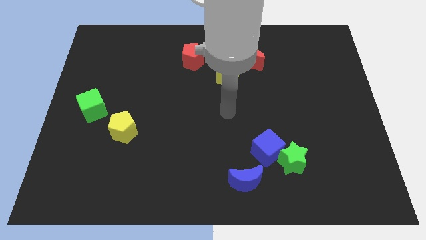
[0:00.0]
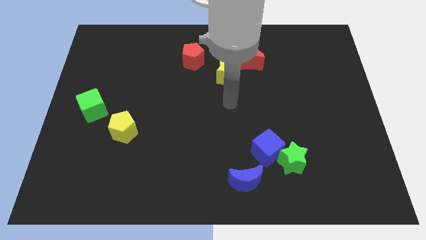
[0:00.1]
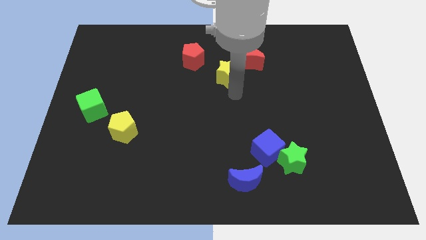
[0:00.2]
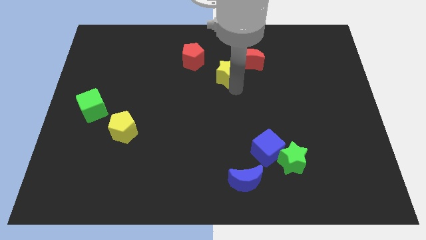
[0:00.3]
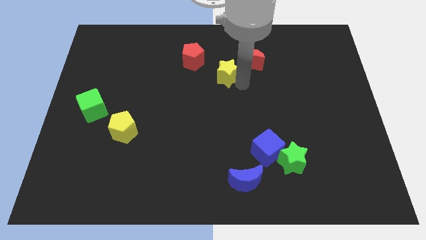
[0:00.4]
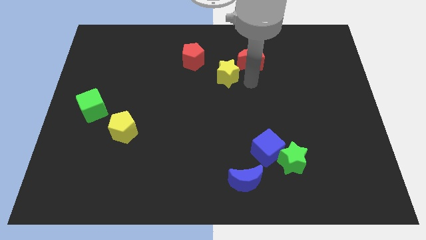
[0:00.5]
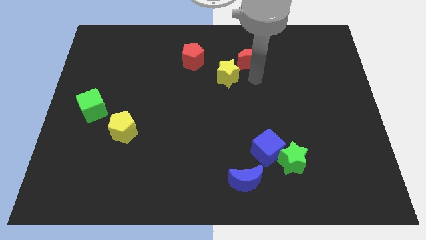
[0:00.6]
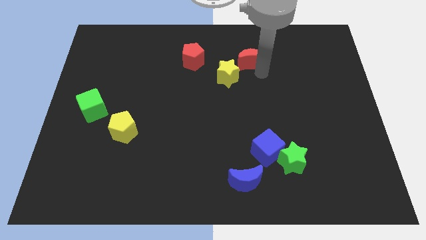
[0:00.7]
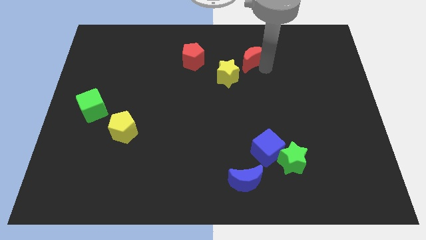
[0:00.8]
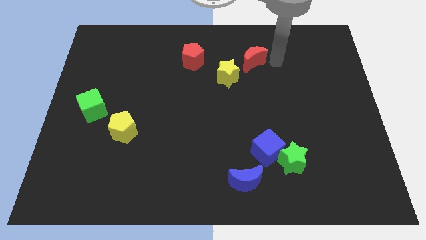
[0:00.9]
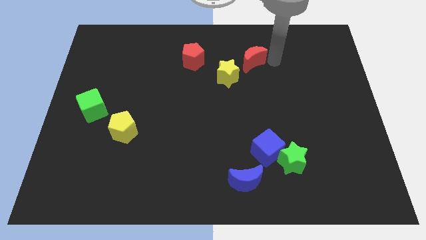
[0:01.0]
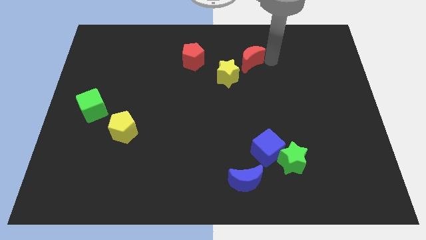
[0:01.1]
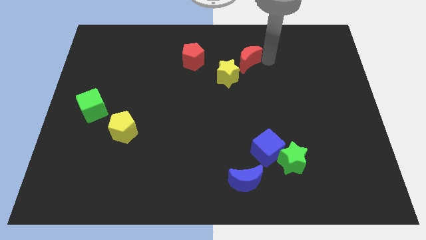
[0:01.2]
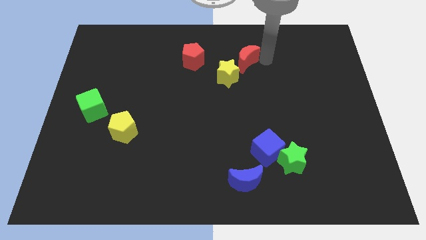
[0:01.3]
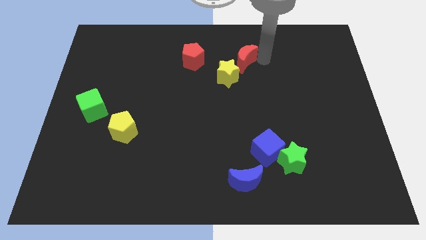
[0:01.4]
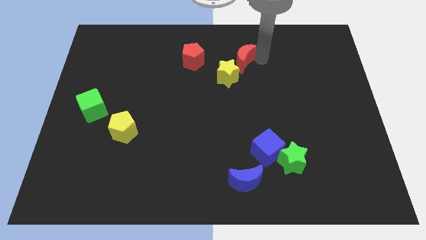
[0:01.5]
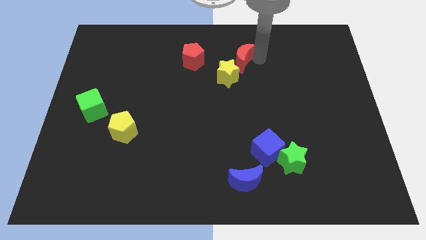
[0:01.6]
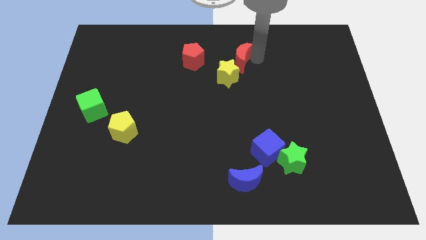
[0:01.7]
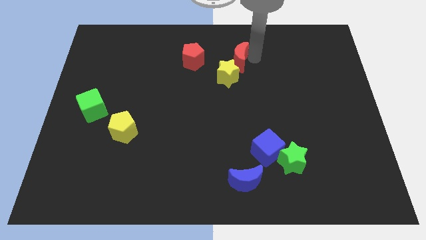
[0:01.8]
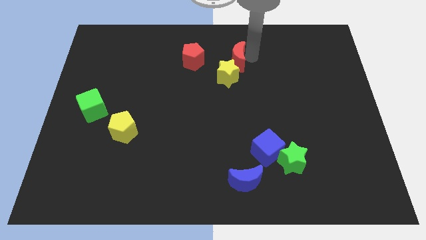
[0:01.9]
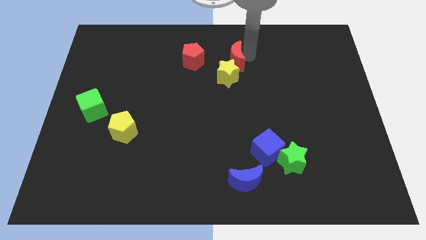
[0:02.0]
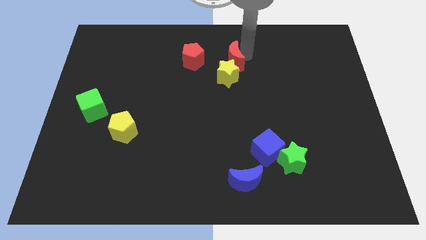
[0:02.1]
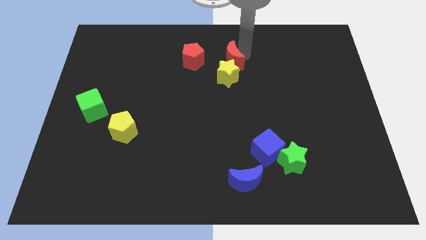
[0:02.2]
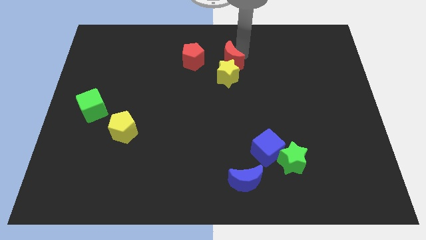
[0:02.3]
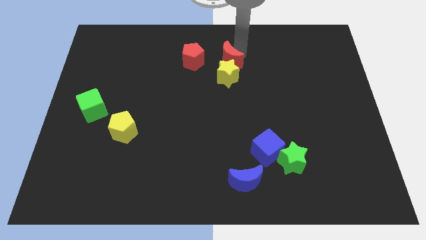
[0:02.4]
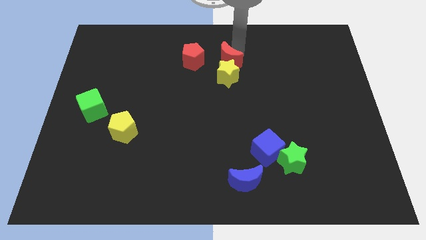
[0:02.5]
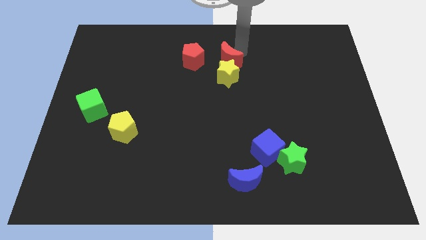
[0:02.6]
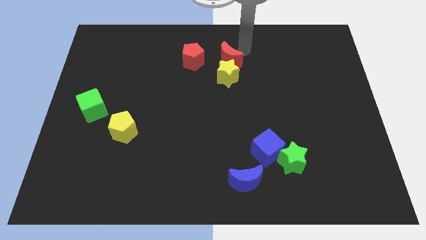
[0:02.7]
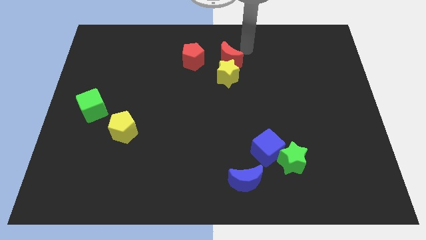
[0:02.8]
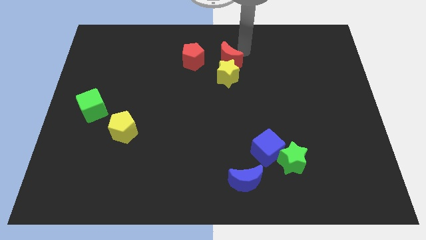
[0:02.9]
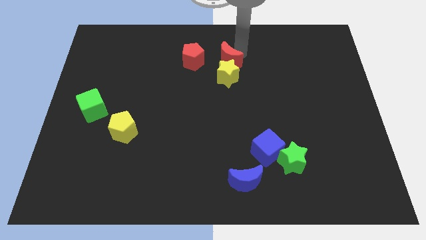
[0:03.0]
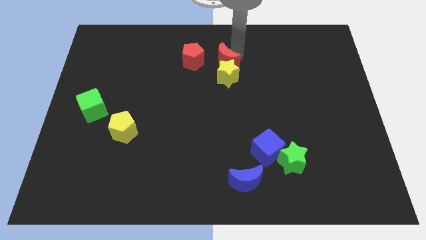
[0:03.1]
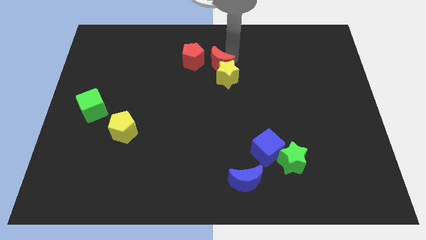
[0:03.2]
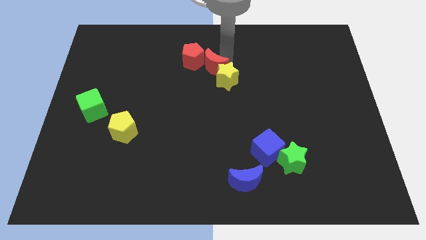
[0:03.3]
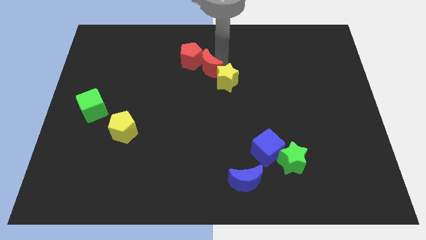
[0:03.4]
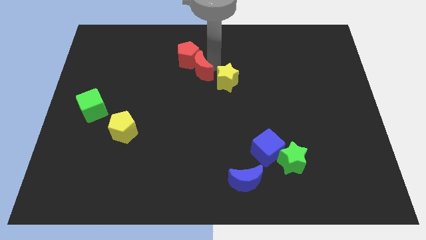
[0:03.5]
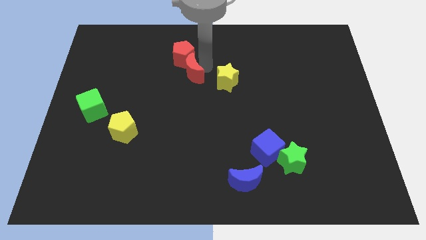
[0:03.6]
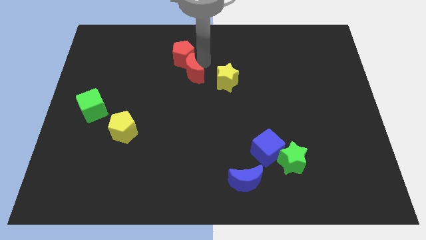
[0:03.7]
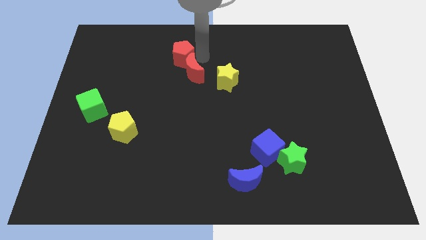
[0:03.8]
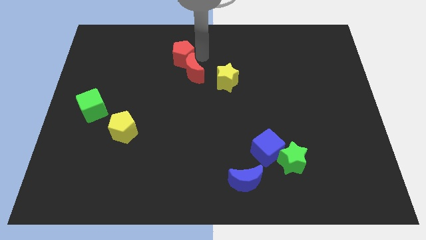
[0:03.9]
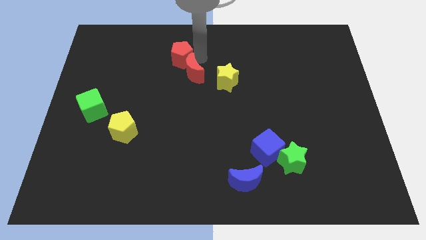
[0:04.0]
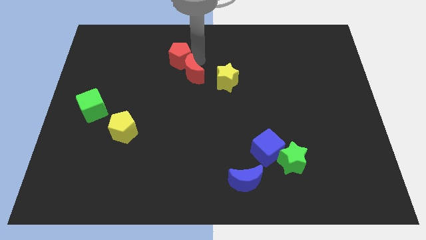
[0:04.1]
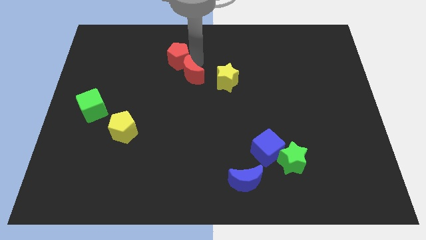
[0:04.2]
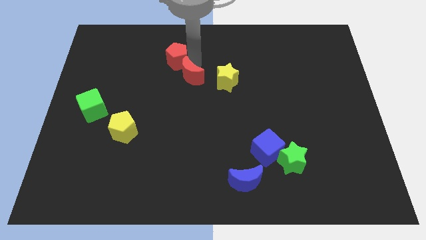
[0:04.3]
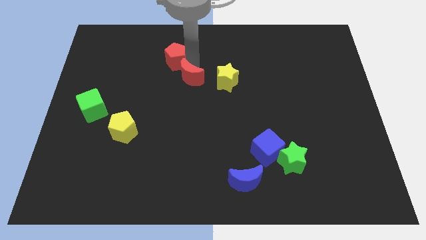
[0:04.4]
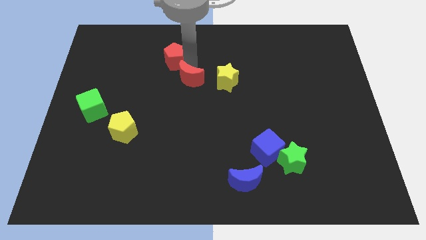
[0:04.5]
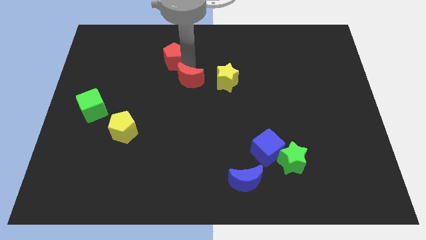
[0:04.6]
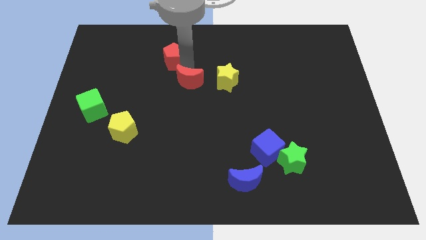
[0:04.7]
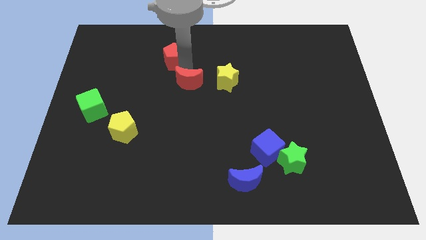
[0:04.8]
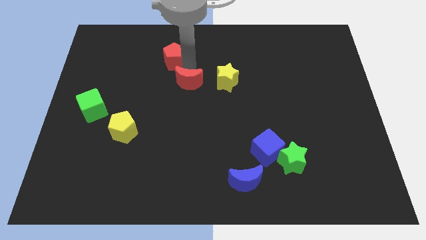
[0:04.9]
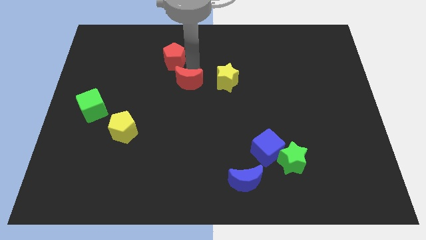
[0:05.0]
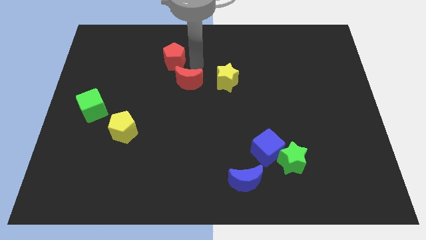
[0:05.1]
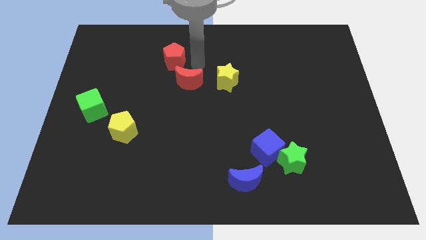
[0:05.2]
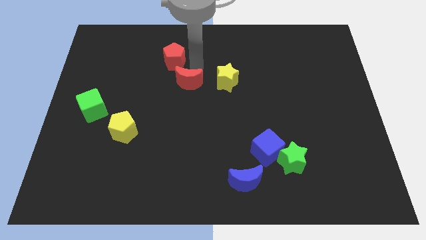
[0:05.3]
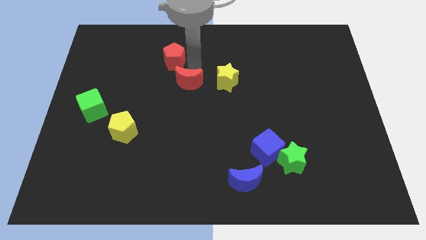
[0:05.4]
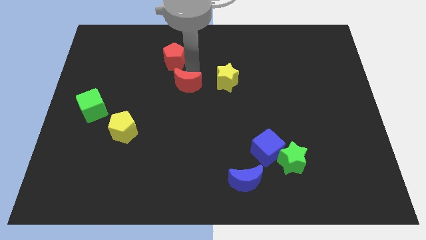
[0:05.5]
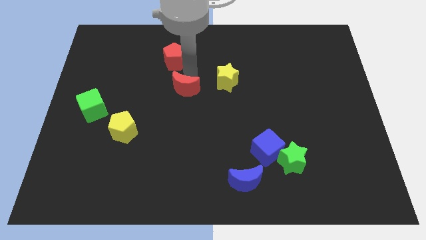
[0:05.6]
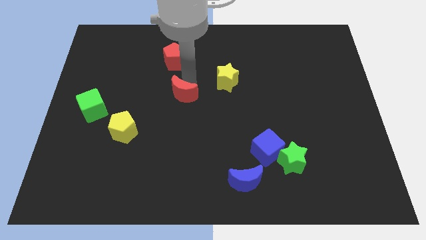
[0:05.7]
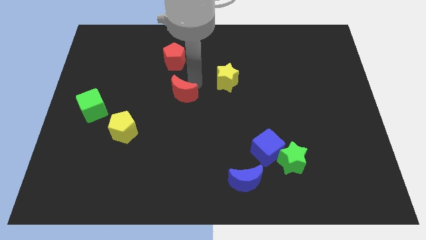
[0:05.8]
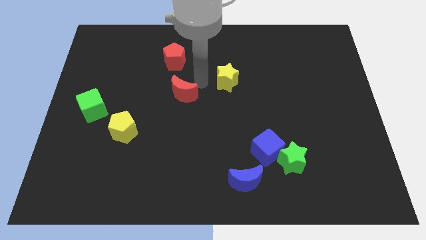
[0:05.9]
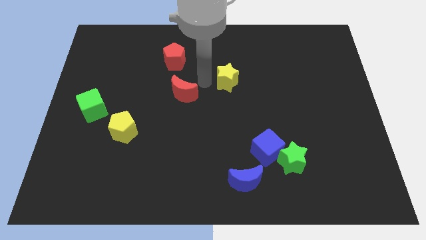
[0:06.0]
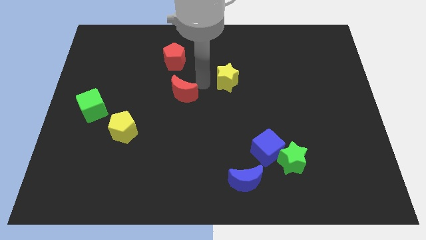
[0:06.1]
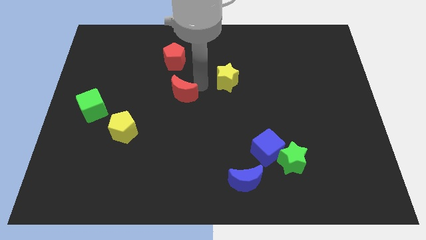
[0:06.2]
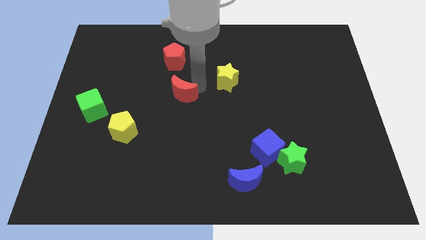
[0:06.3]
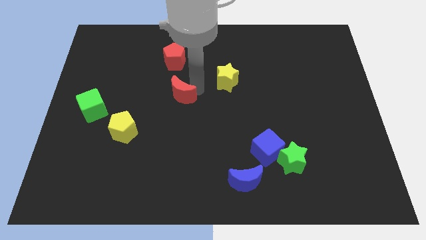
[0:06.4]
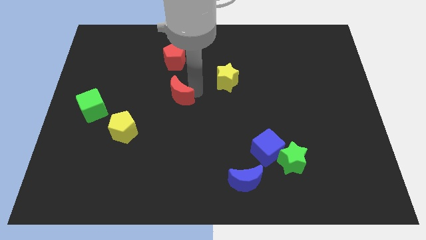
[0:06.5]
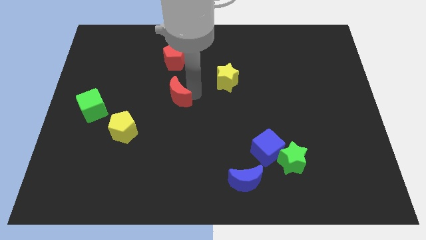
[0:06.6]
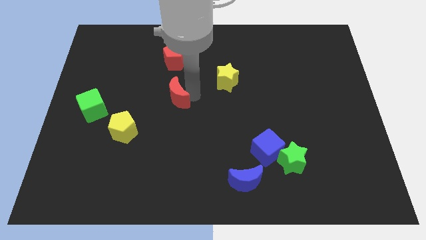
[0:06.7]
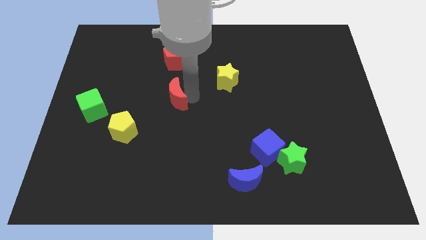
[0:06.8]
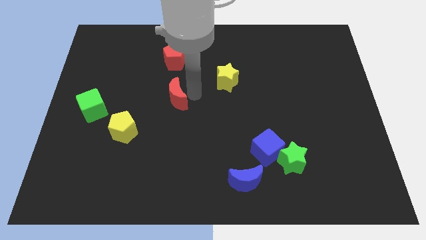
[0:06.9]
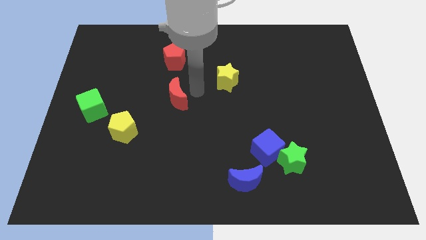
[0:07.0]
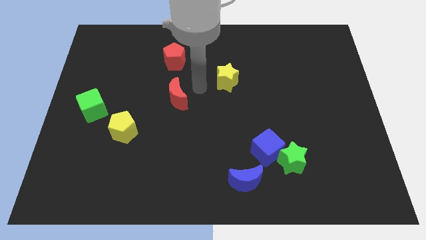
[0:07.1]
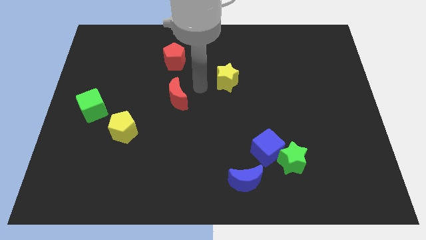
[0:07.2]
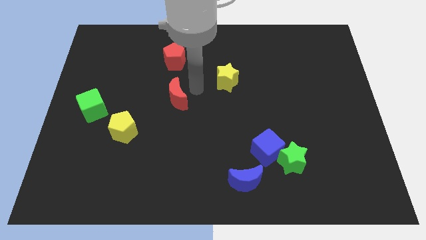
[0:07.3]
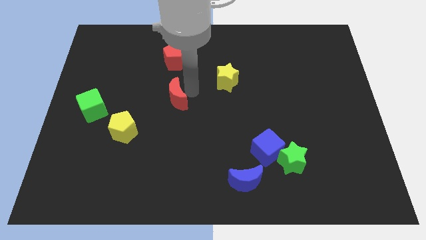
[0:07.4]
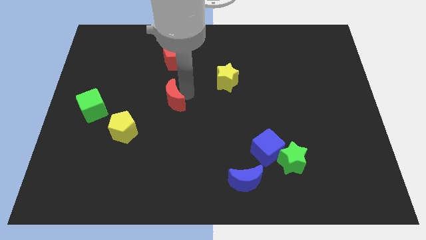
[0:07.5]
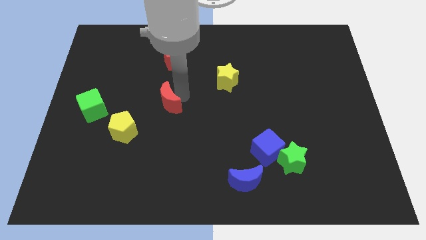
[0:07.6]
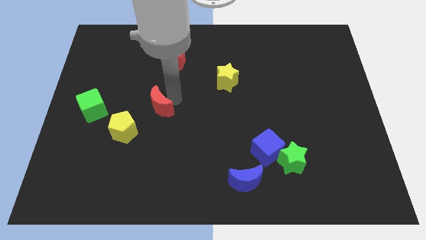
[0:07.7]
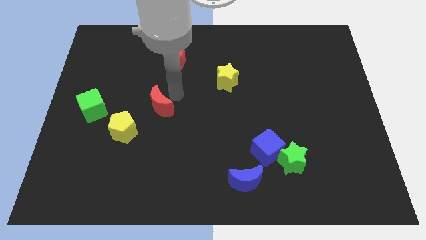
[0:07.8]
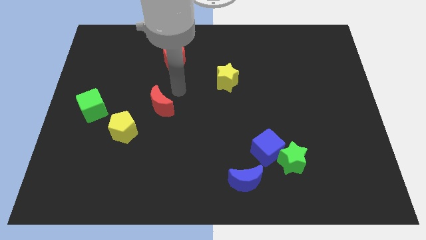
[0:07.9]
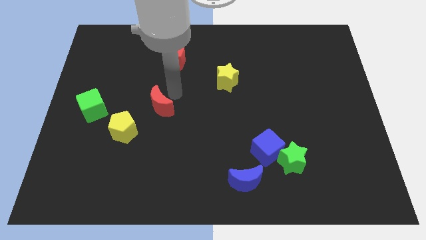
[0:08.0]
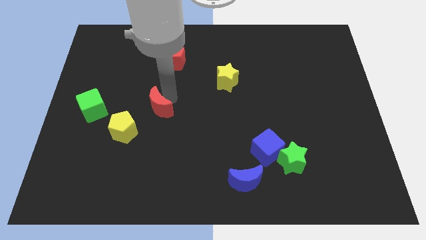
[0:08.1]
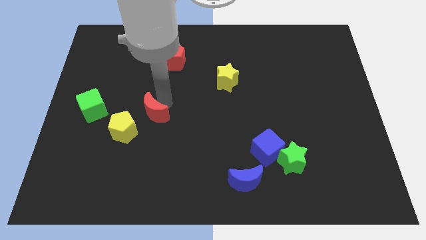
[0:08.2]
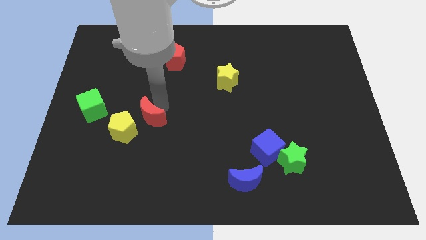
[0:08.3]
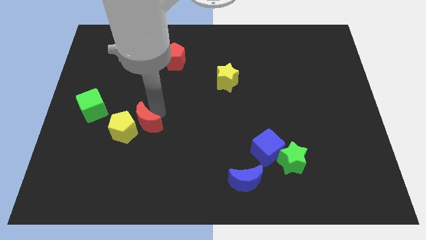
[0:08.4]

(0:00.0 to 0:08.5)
move the red moon next to the yellow pentagon
